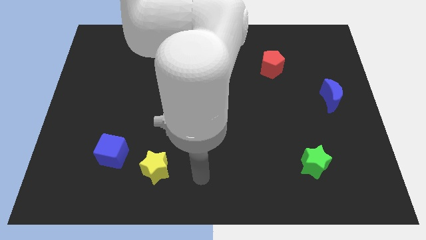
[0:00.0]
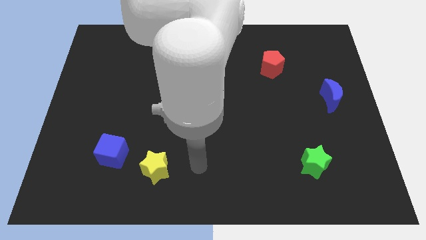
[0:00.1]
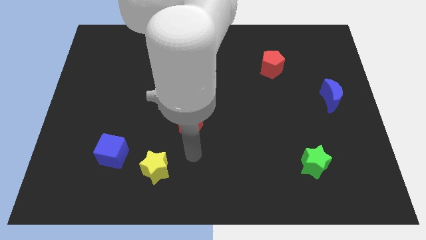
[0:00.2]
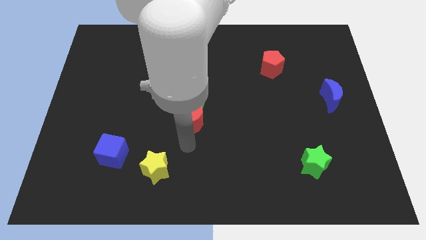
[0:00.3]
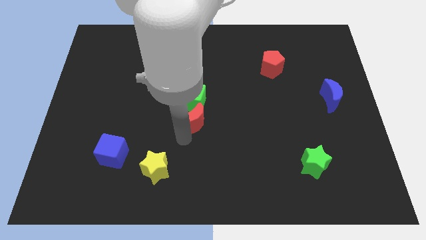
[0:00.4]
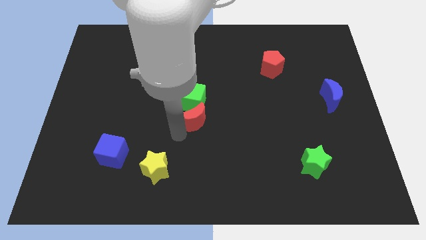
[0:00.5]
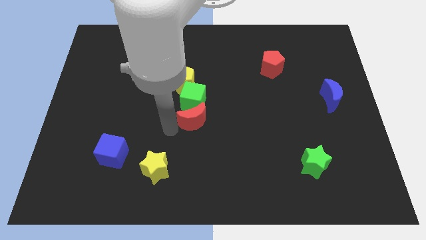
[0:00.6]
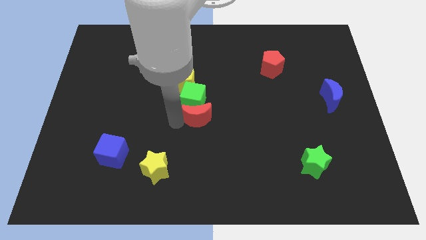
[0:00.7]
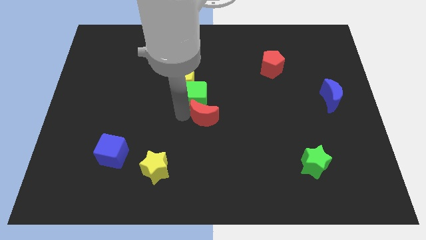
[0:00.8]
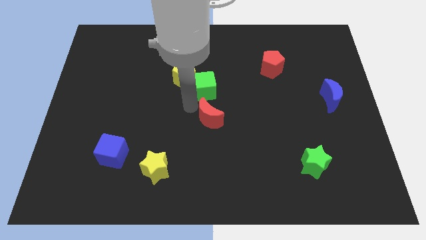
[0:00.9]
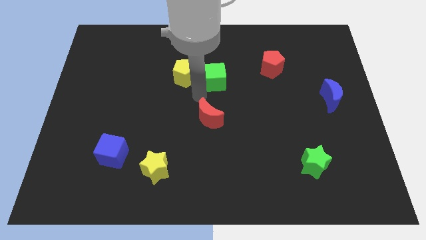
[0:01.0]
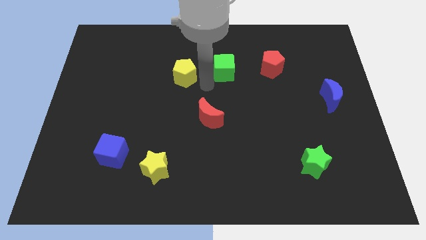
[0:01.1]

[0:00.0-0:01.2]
move the yellow pentagon away from the green cube

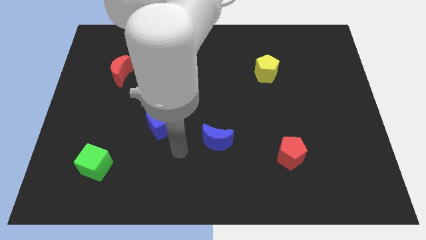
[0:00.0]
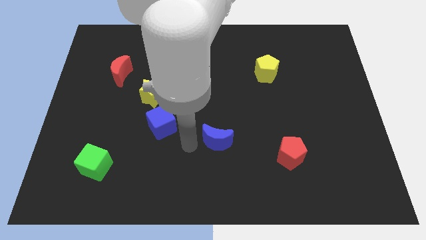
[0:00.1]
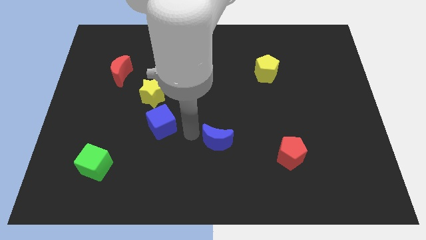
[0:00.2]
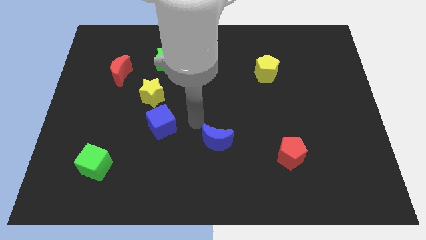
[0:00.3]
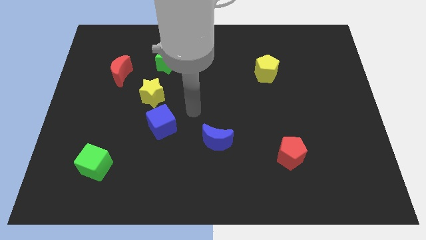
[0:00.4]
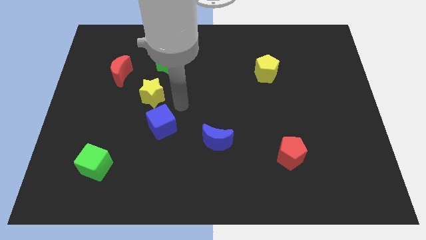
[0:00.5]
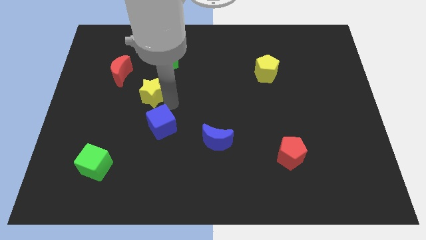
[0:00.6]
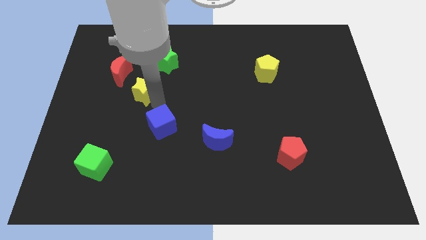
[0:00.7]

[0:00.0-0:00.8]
pull the blue cube apart from the yellow star

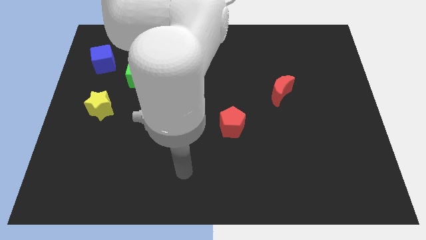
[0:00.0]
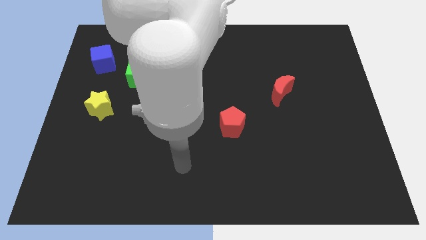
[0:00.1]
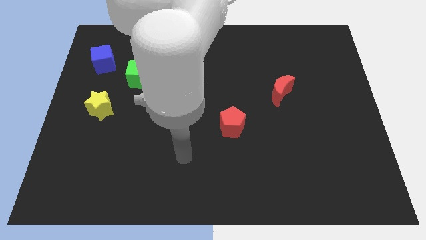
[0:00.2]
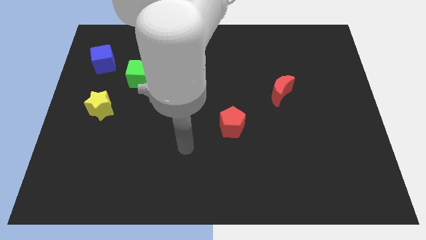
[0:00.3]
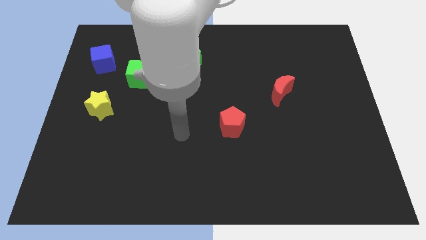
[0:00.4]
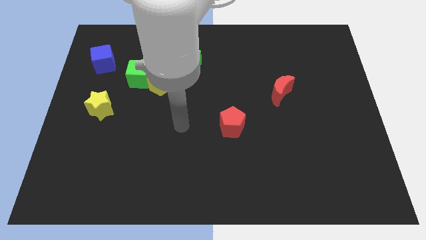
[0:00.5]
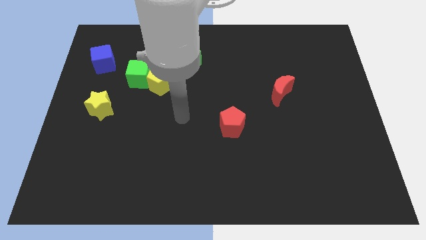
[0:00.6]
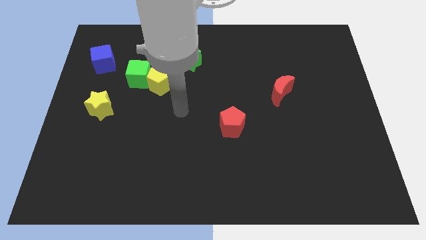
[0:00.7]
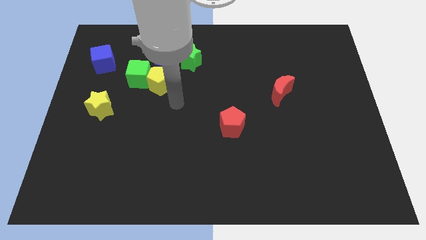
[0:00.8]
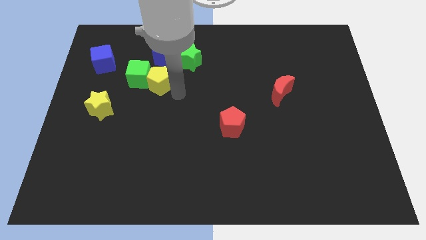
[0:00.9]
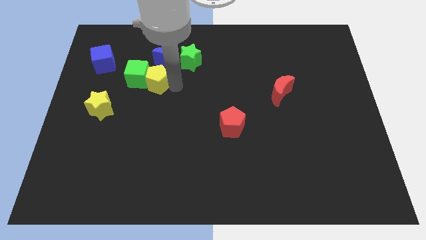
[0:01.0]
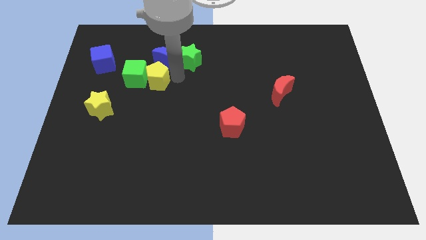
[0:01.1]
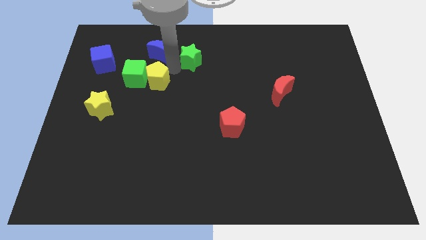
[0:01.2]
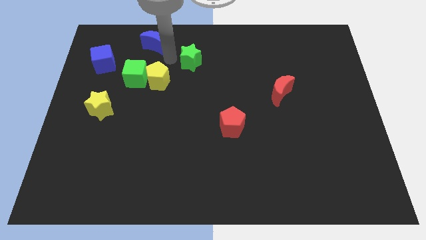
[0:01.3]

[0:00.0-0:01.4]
move the green star away from the blue moon

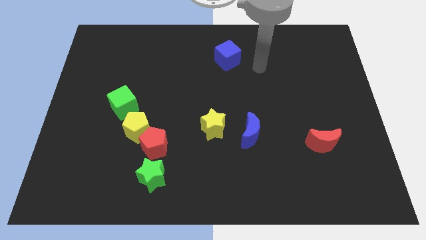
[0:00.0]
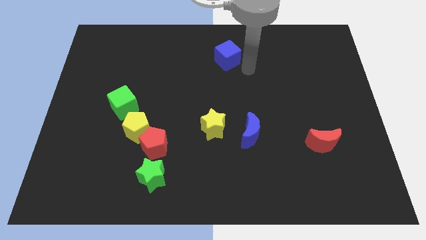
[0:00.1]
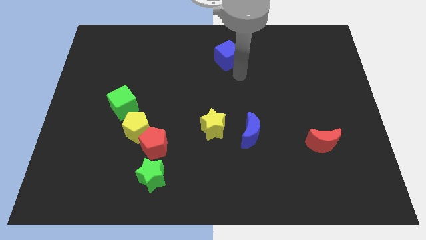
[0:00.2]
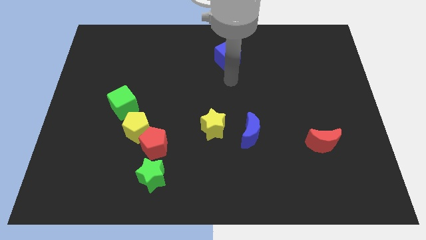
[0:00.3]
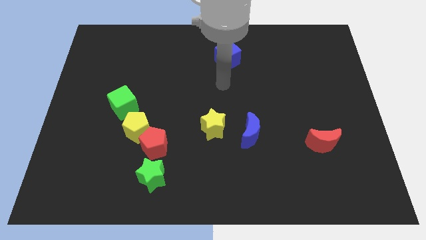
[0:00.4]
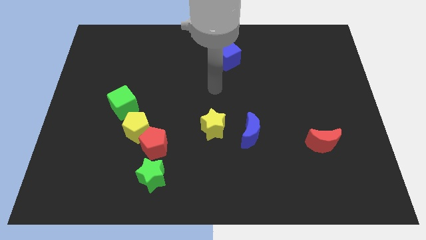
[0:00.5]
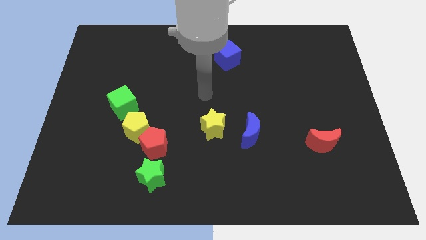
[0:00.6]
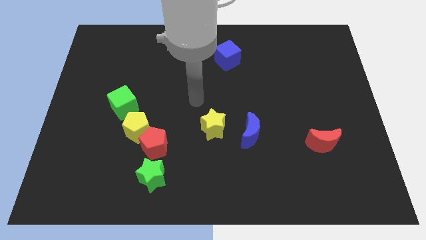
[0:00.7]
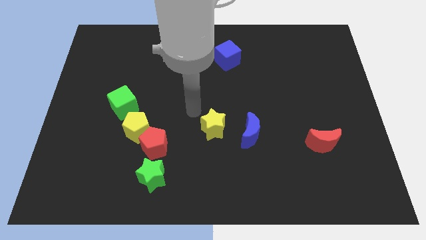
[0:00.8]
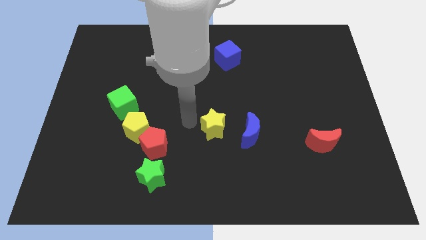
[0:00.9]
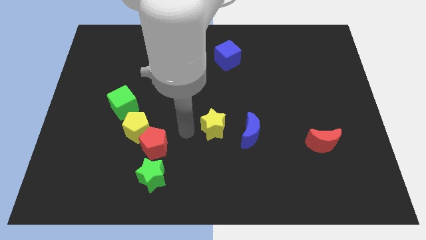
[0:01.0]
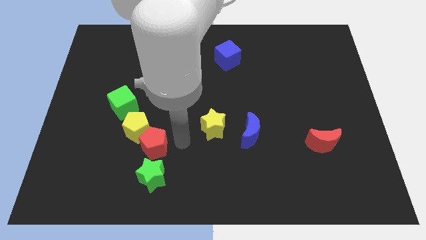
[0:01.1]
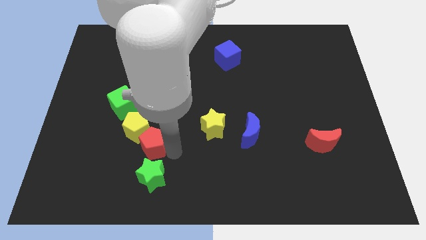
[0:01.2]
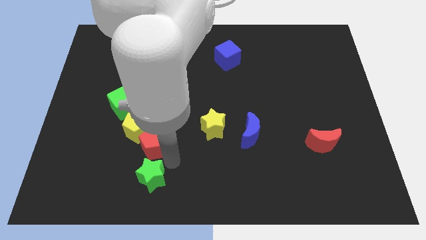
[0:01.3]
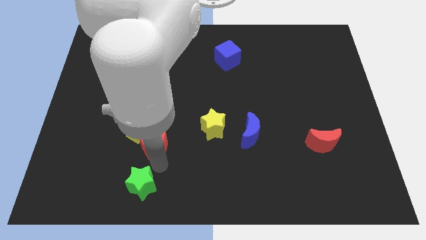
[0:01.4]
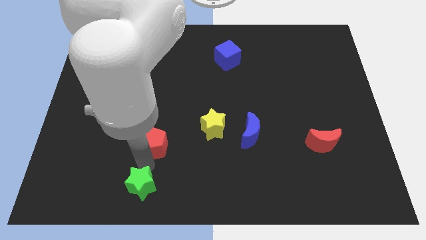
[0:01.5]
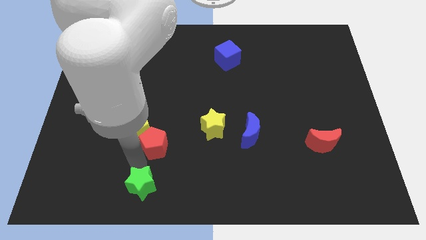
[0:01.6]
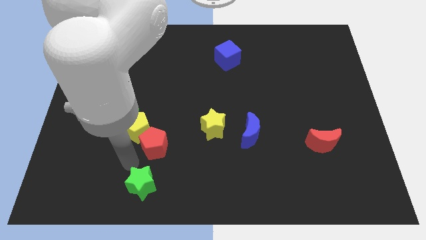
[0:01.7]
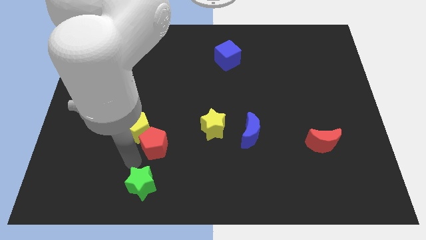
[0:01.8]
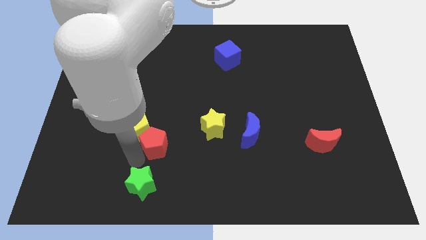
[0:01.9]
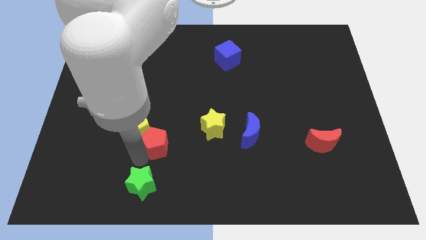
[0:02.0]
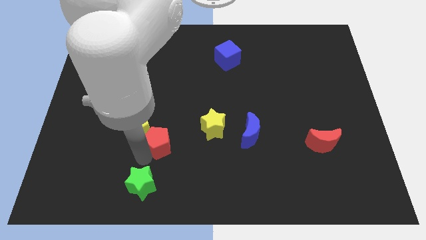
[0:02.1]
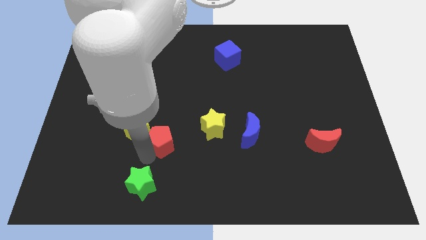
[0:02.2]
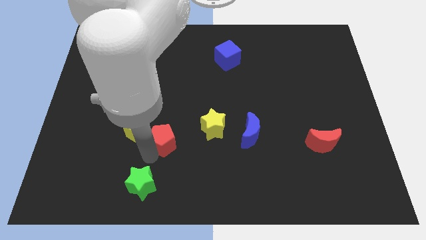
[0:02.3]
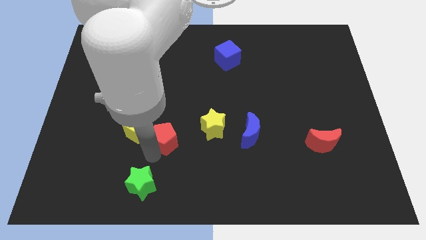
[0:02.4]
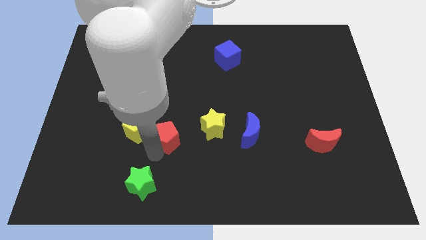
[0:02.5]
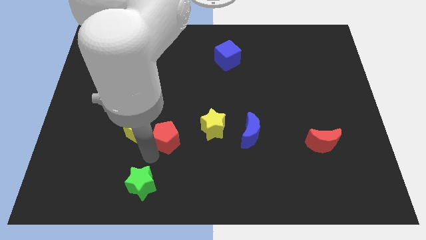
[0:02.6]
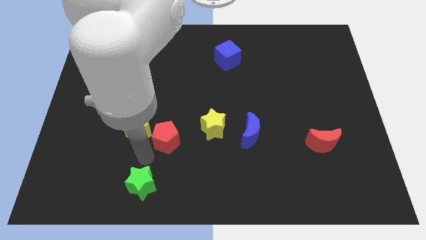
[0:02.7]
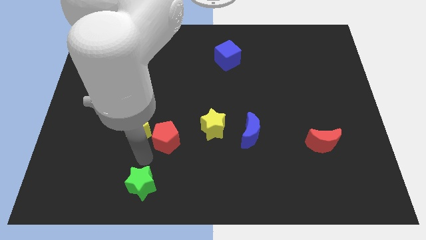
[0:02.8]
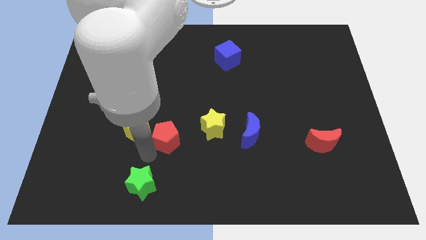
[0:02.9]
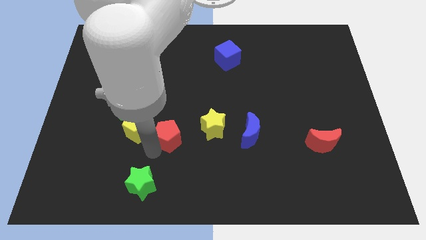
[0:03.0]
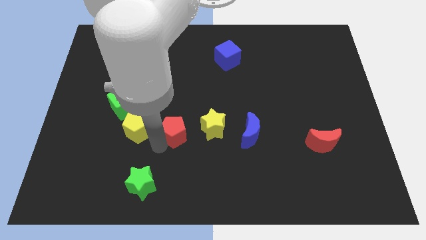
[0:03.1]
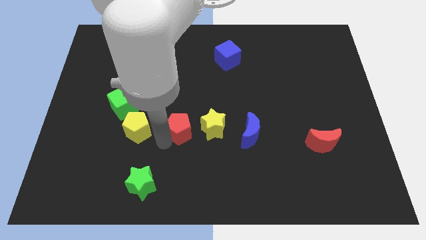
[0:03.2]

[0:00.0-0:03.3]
pull the red pentagon apart from the yellow pentagon and green star

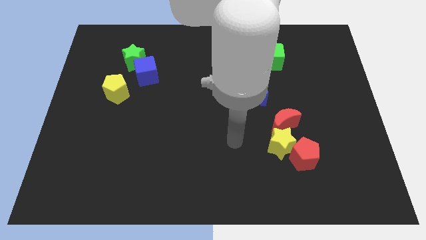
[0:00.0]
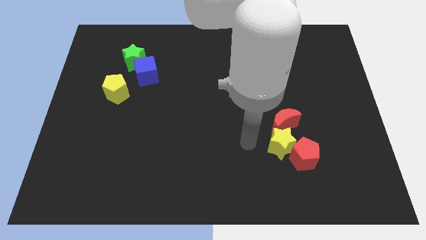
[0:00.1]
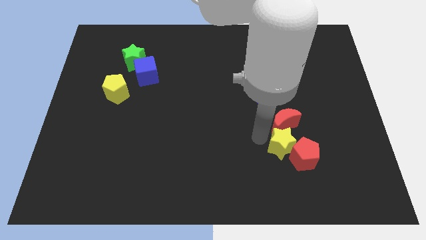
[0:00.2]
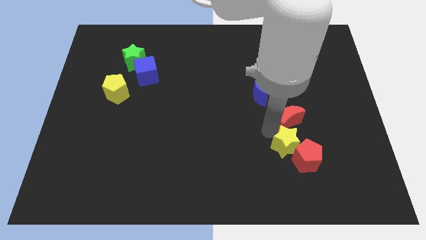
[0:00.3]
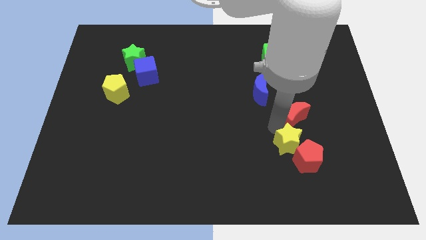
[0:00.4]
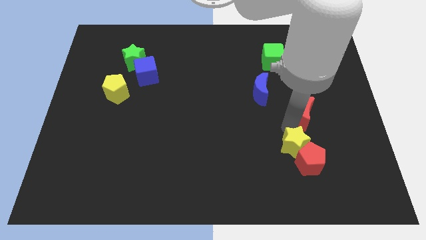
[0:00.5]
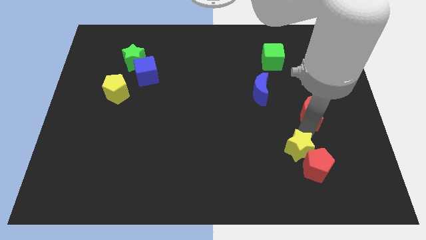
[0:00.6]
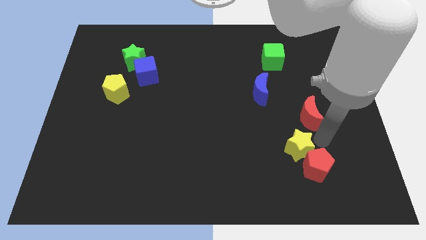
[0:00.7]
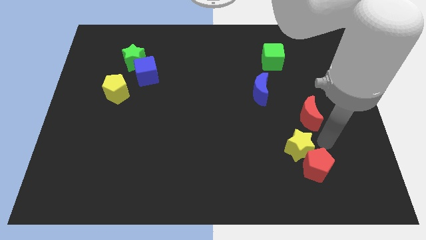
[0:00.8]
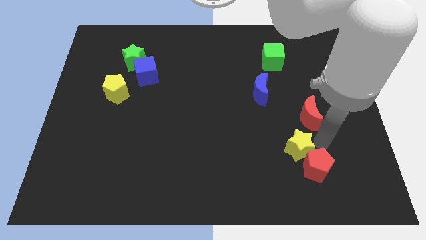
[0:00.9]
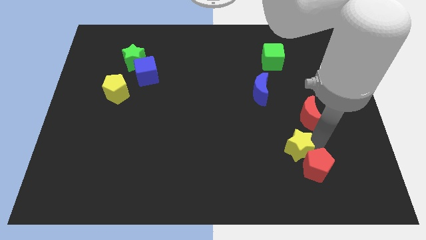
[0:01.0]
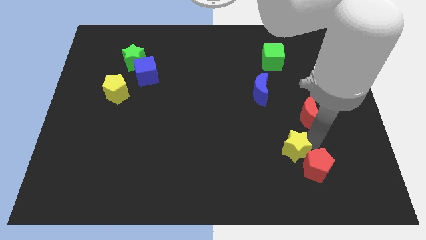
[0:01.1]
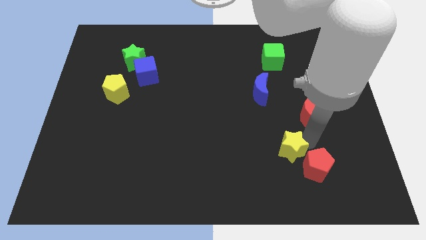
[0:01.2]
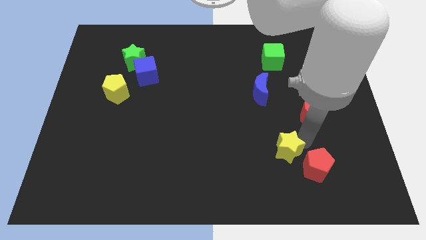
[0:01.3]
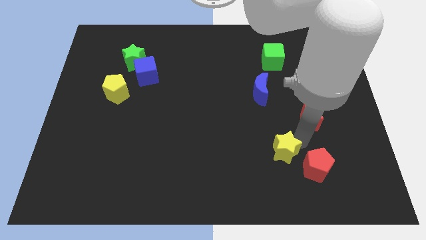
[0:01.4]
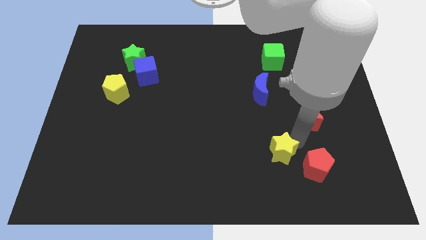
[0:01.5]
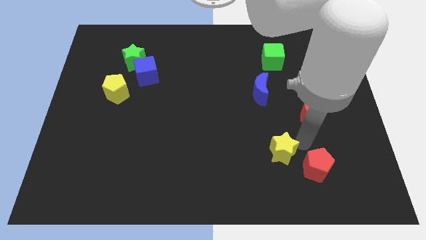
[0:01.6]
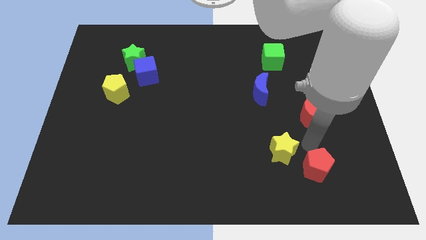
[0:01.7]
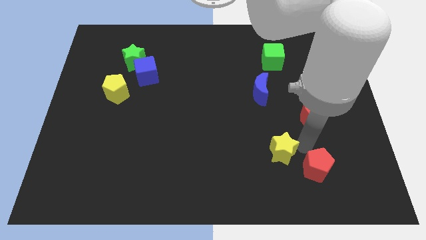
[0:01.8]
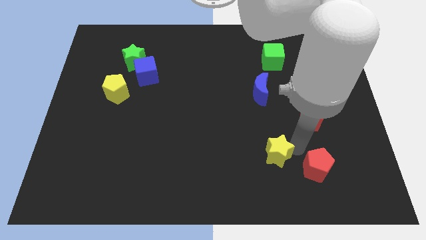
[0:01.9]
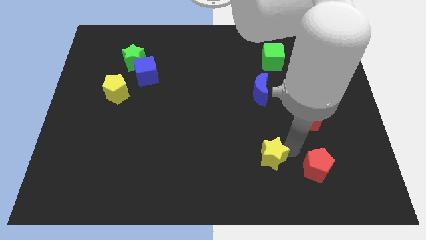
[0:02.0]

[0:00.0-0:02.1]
move the yellow star away from the red pentagon and red moon

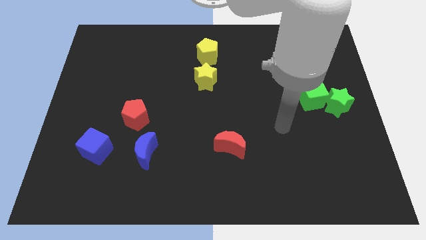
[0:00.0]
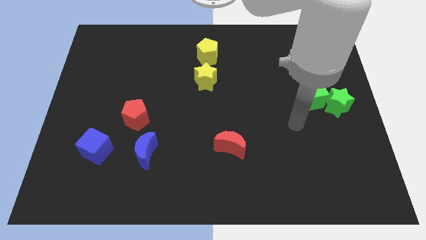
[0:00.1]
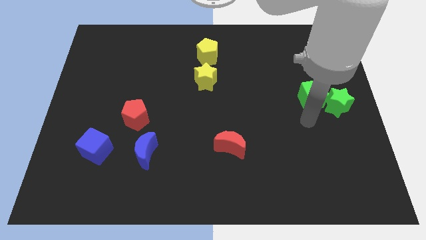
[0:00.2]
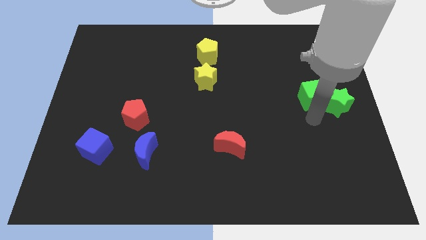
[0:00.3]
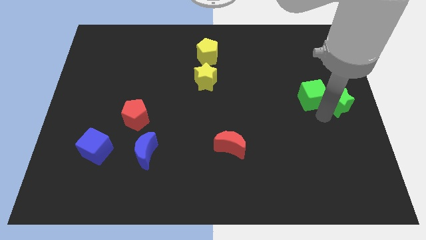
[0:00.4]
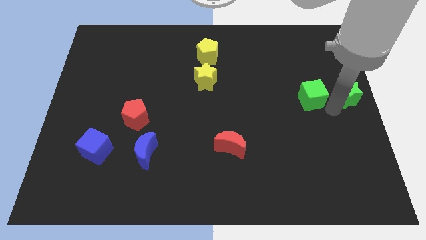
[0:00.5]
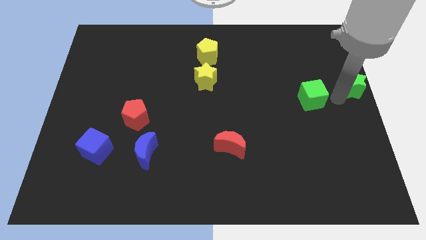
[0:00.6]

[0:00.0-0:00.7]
move the green cube away from the green star

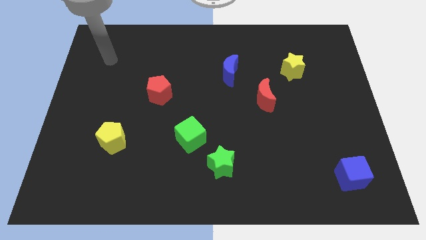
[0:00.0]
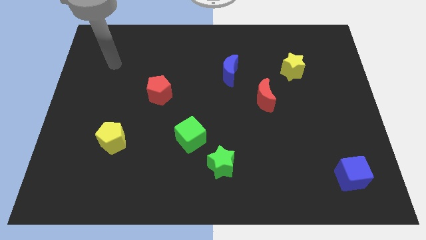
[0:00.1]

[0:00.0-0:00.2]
pull the green cube apart from the green star
